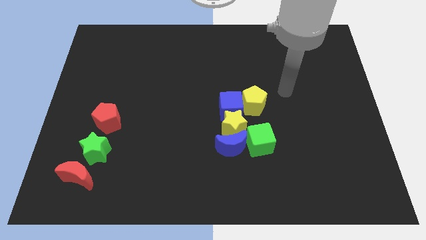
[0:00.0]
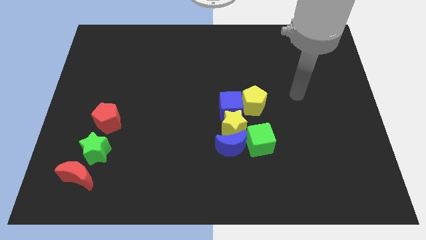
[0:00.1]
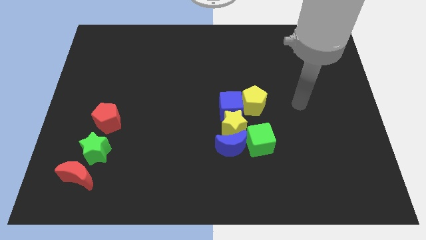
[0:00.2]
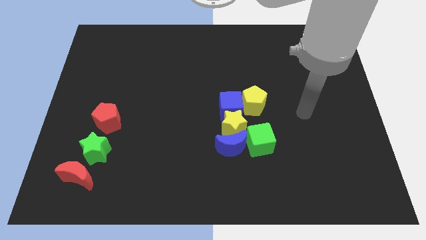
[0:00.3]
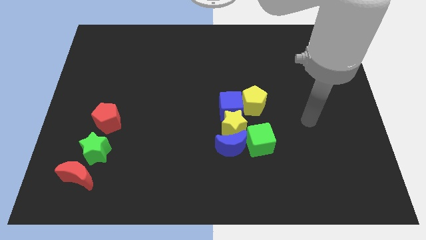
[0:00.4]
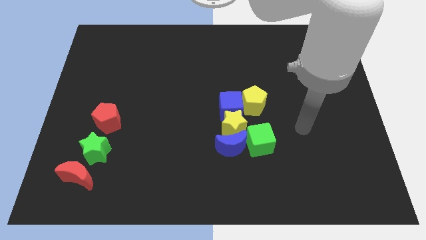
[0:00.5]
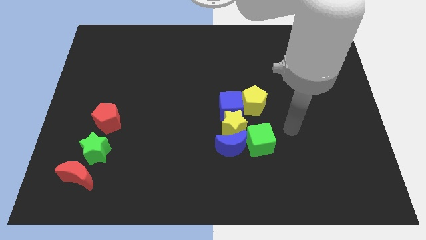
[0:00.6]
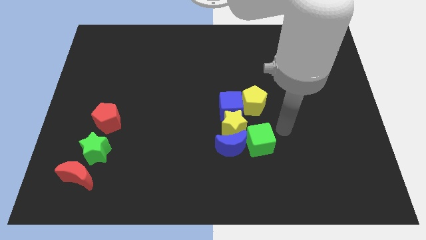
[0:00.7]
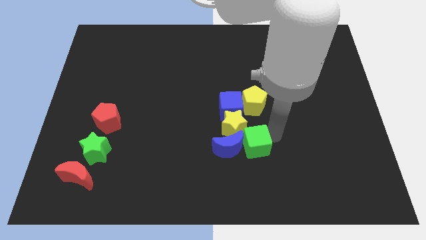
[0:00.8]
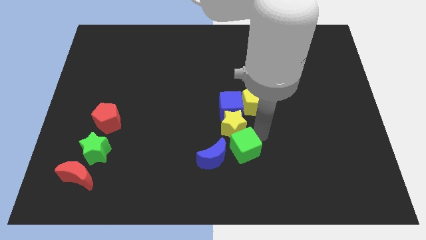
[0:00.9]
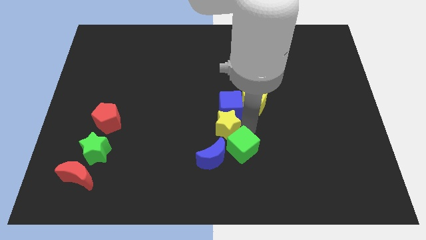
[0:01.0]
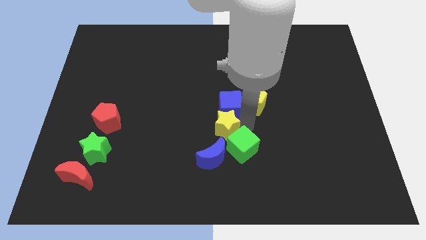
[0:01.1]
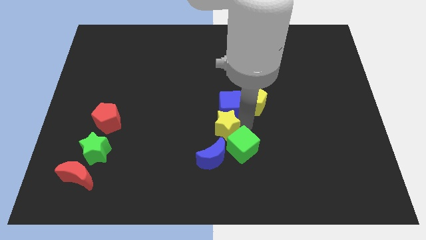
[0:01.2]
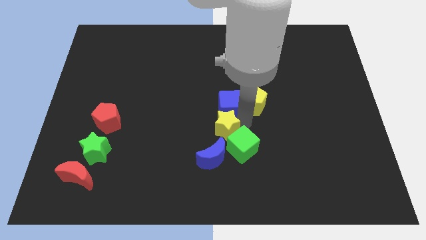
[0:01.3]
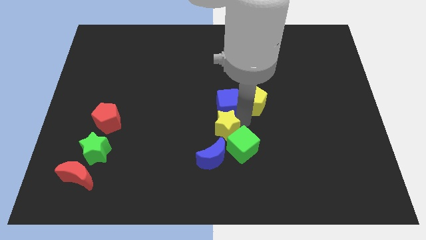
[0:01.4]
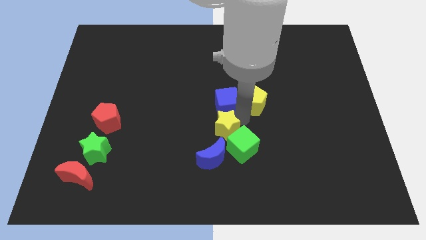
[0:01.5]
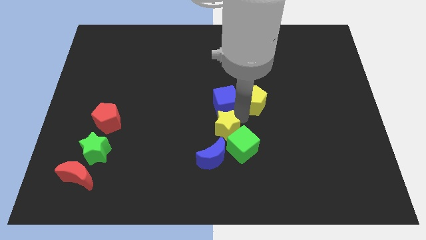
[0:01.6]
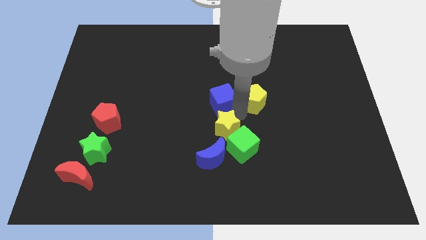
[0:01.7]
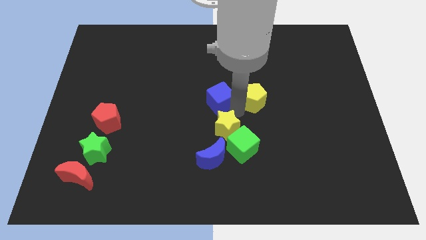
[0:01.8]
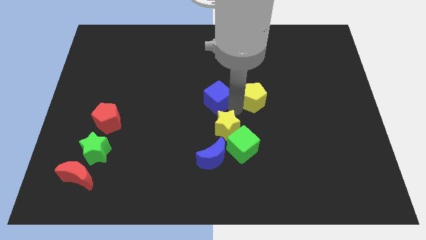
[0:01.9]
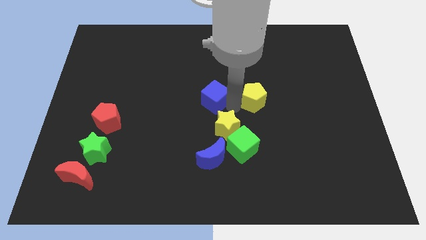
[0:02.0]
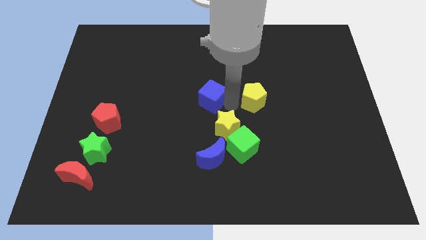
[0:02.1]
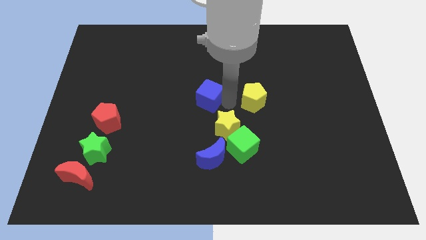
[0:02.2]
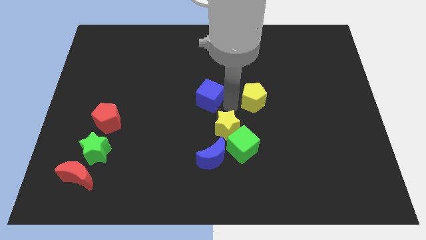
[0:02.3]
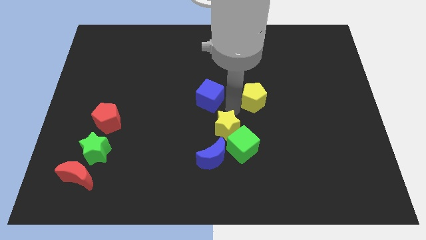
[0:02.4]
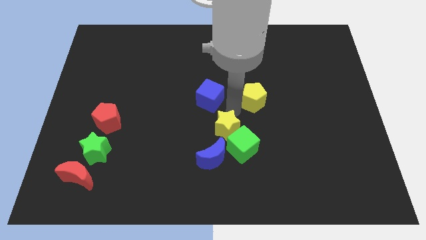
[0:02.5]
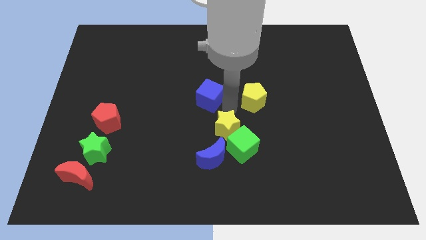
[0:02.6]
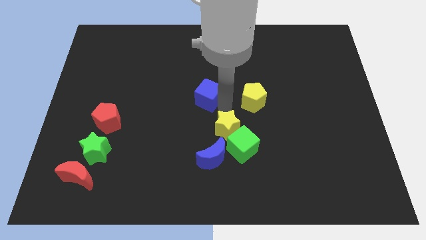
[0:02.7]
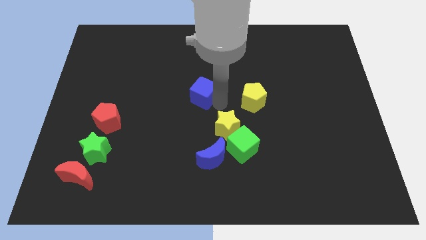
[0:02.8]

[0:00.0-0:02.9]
move the blue cube away from the yellow star and yellow pentagon

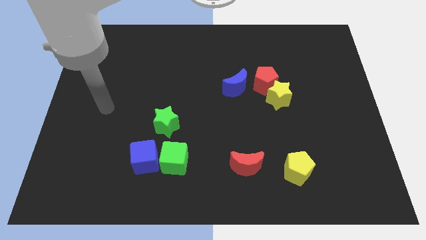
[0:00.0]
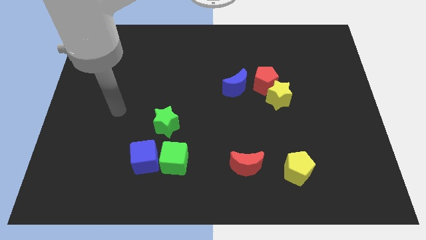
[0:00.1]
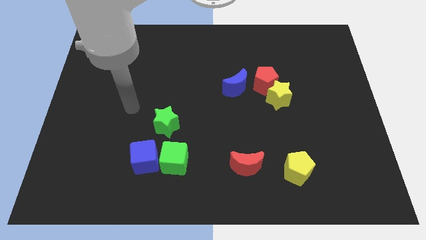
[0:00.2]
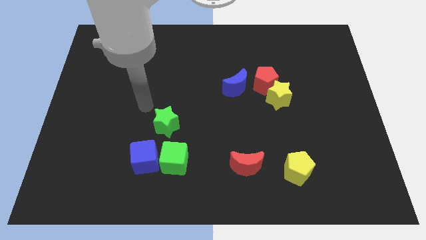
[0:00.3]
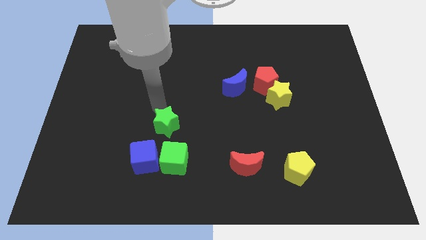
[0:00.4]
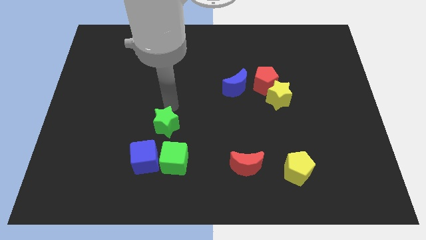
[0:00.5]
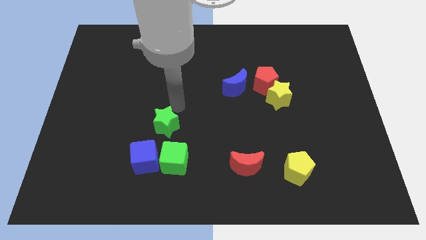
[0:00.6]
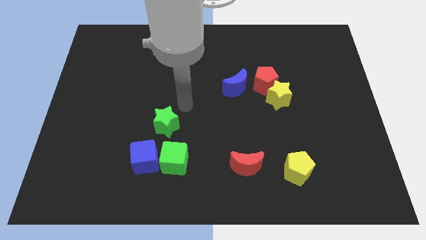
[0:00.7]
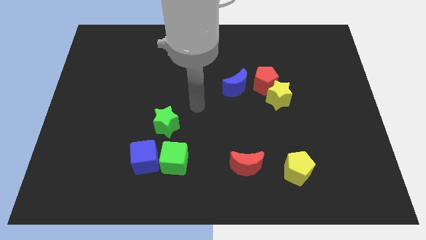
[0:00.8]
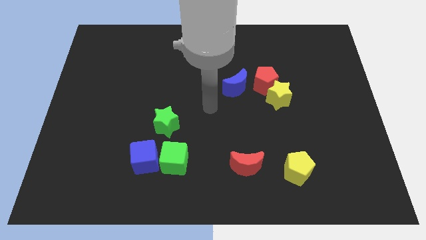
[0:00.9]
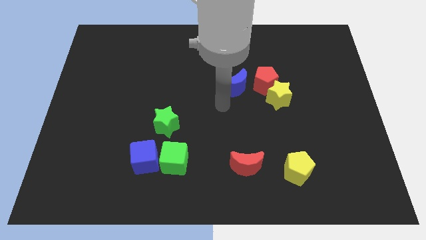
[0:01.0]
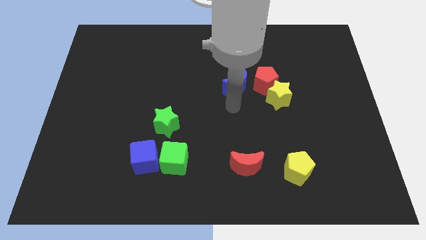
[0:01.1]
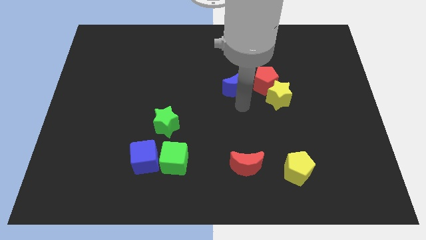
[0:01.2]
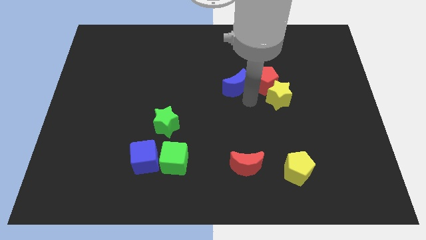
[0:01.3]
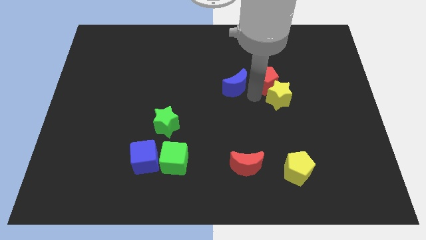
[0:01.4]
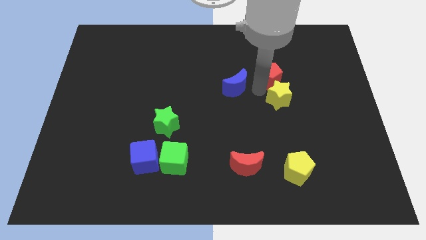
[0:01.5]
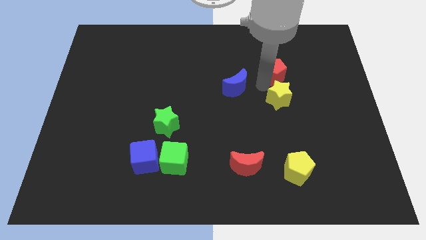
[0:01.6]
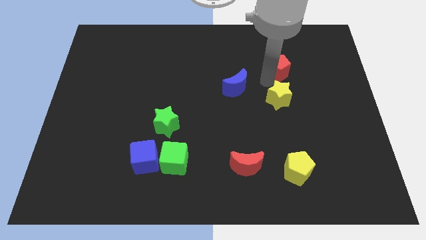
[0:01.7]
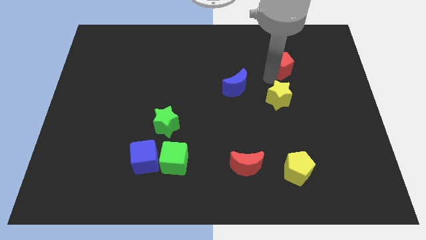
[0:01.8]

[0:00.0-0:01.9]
separate the red pentagon from the yellow star and blue moon

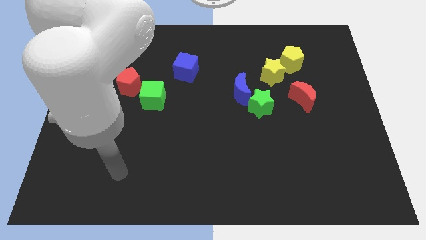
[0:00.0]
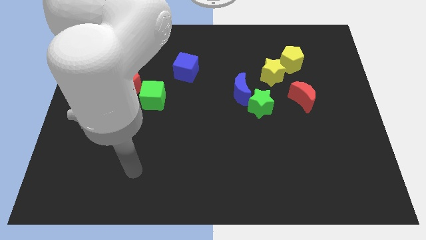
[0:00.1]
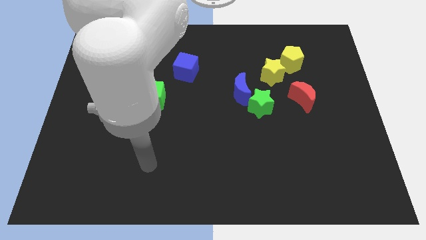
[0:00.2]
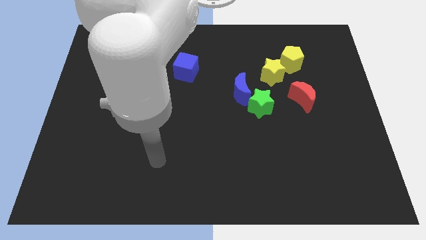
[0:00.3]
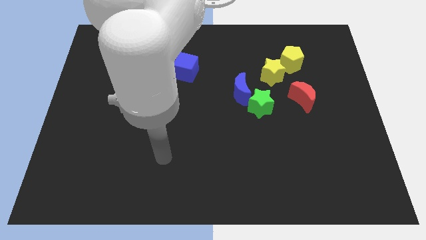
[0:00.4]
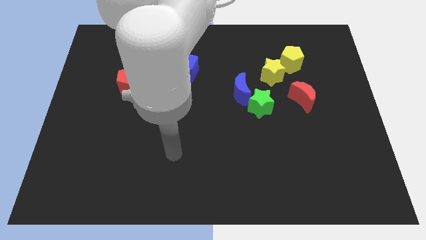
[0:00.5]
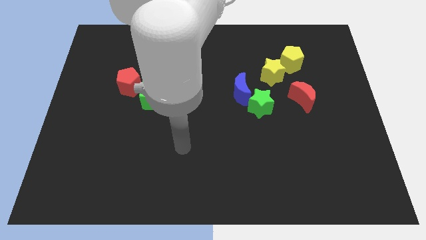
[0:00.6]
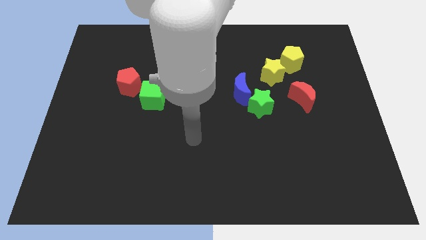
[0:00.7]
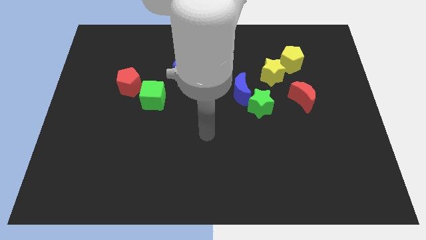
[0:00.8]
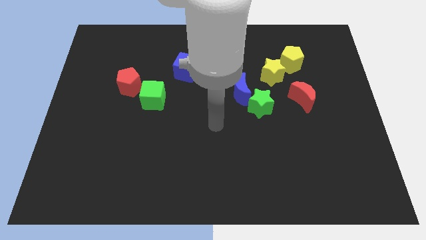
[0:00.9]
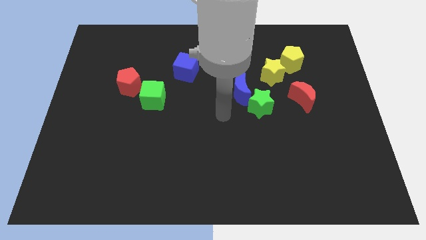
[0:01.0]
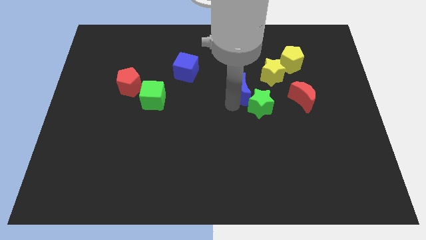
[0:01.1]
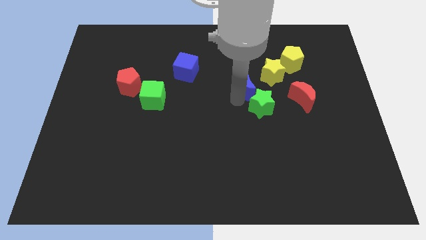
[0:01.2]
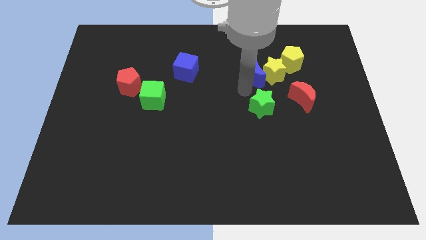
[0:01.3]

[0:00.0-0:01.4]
pull the green star apart from the blue moon

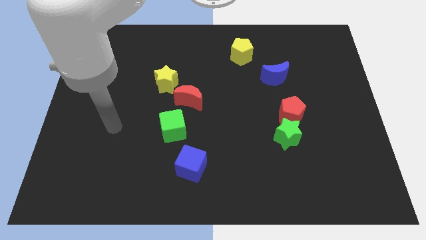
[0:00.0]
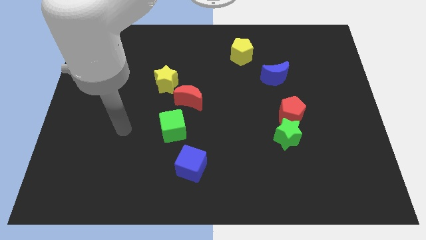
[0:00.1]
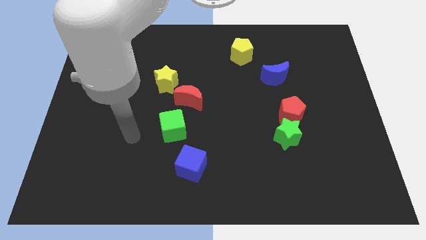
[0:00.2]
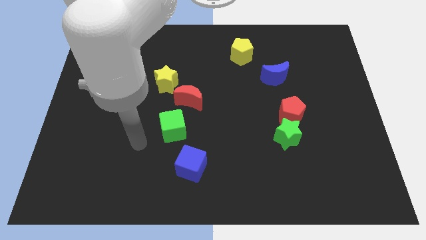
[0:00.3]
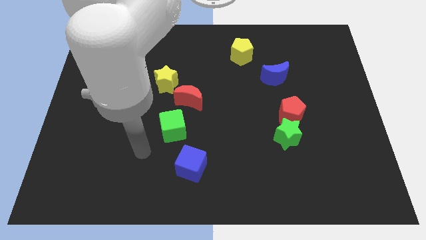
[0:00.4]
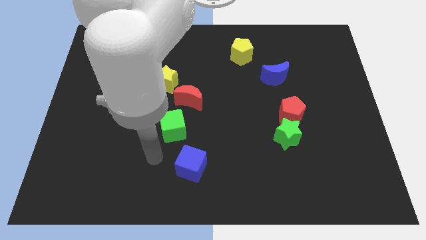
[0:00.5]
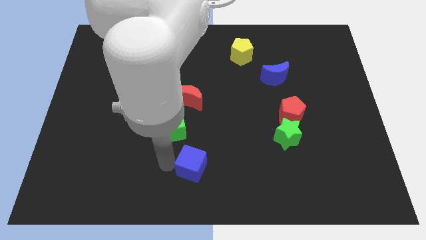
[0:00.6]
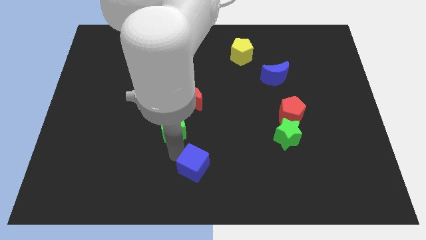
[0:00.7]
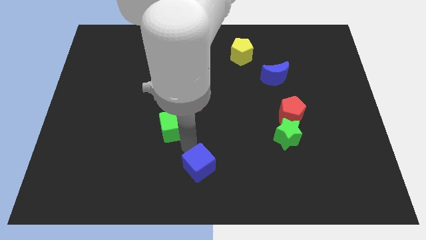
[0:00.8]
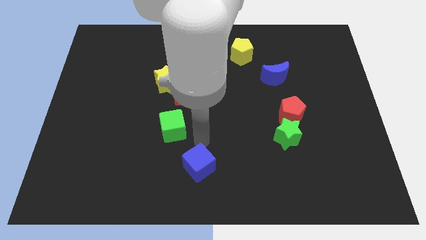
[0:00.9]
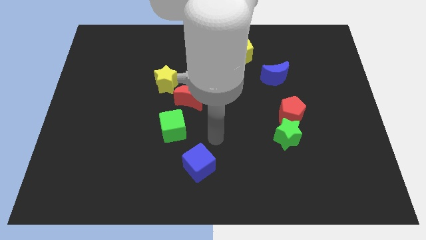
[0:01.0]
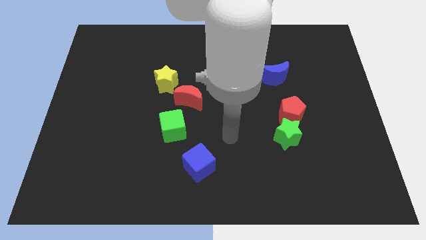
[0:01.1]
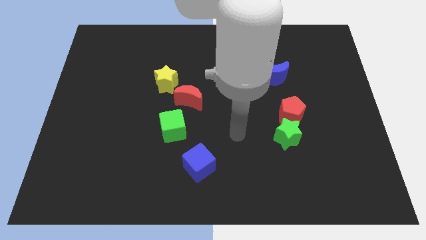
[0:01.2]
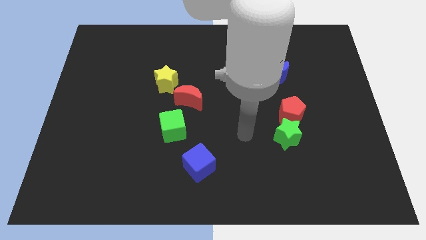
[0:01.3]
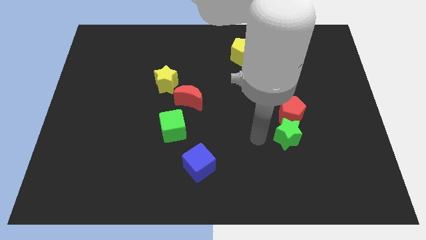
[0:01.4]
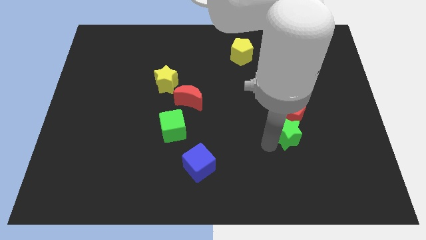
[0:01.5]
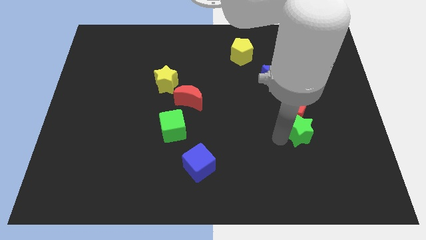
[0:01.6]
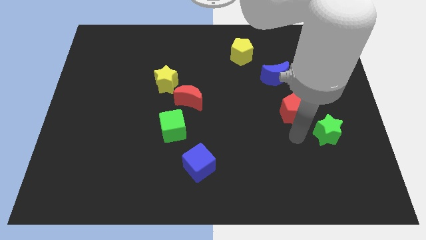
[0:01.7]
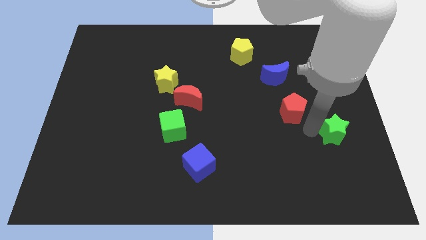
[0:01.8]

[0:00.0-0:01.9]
move the red pentagon away from the green star

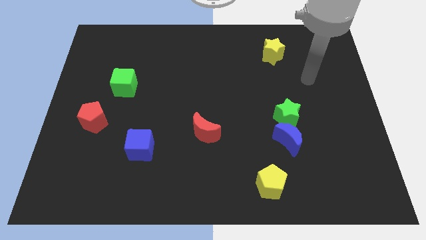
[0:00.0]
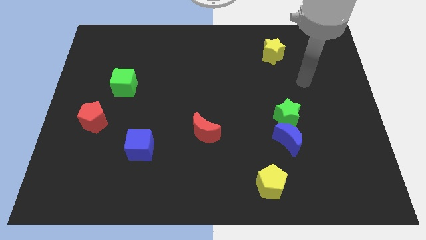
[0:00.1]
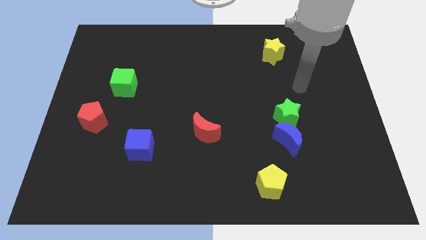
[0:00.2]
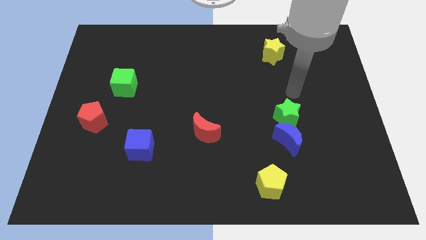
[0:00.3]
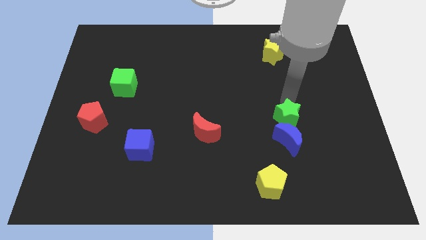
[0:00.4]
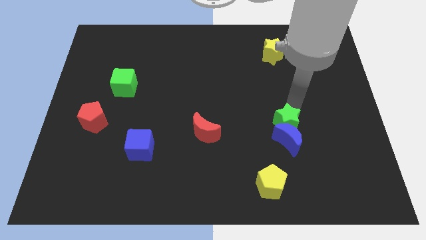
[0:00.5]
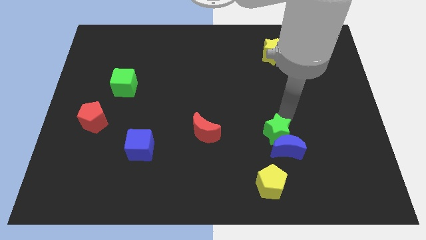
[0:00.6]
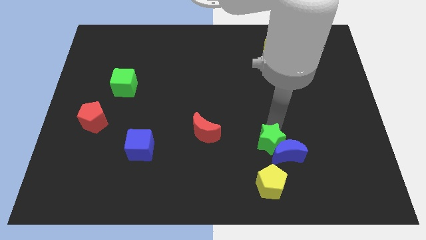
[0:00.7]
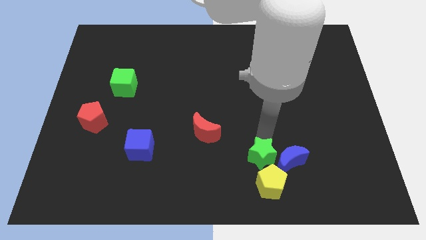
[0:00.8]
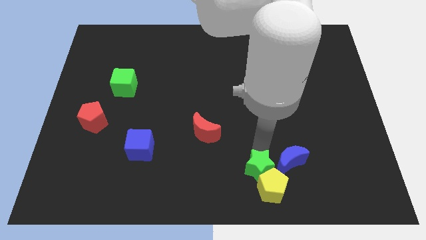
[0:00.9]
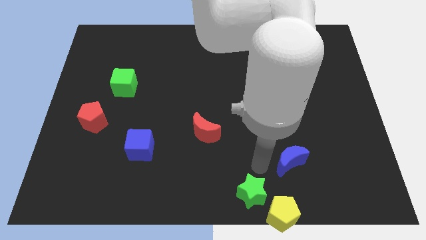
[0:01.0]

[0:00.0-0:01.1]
move the blue moon away from the green star
